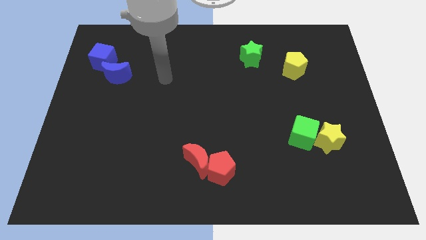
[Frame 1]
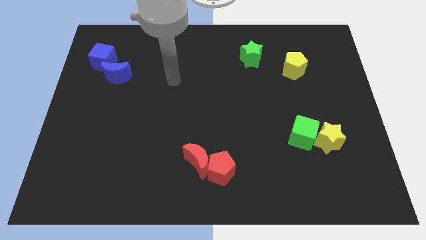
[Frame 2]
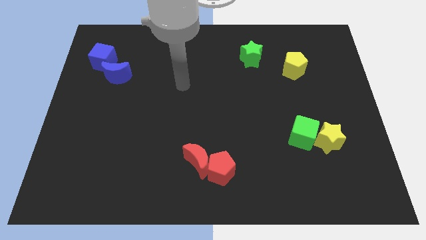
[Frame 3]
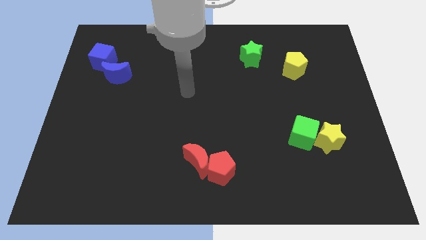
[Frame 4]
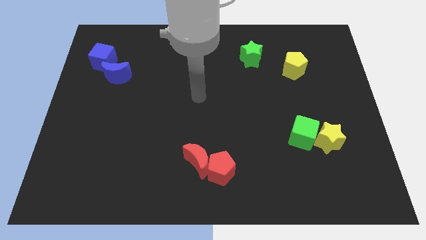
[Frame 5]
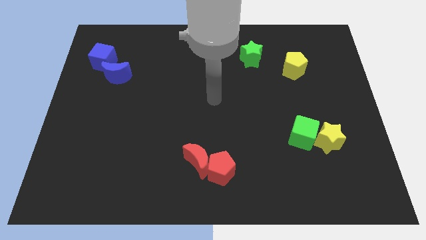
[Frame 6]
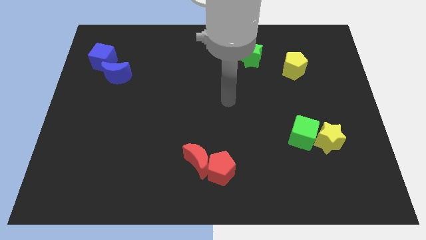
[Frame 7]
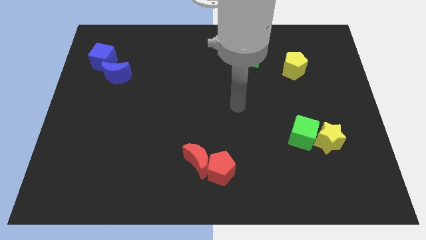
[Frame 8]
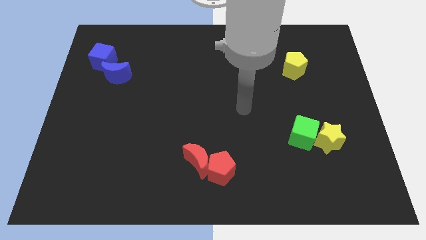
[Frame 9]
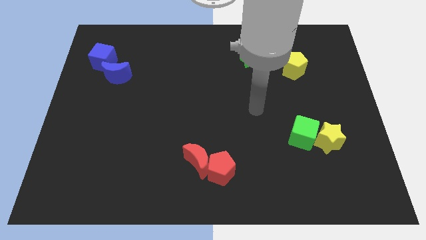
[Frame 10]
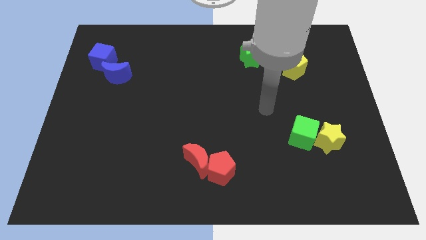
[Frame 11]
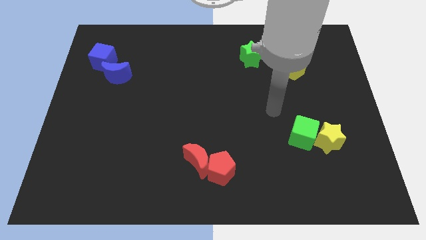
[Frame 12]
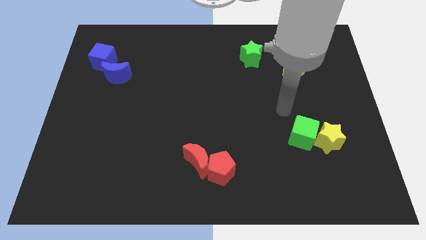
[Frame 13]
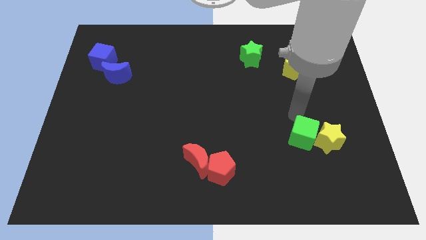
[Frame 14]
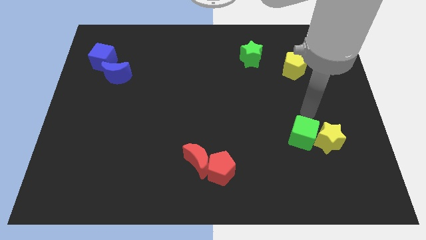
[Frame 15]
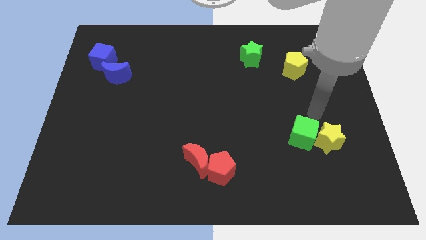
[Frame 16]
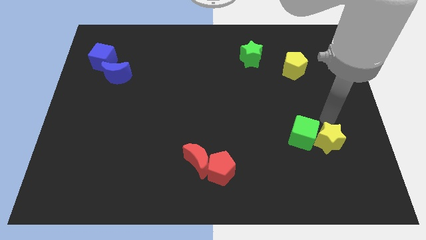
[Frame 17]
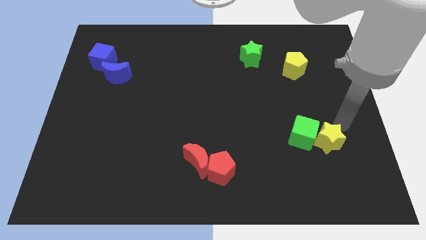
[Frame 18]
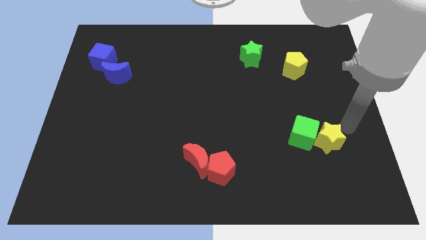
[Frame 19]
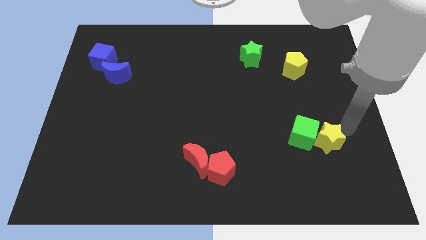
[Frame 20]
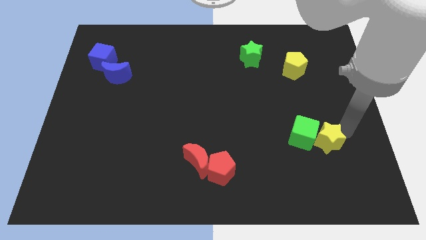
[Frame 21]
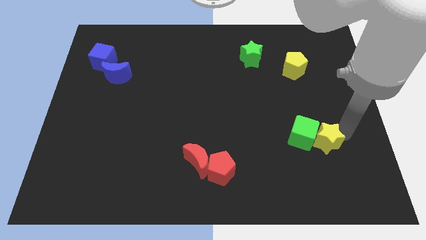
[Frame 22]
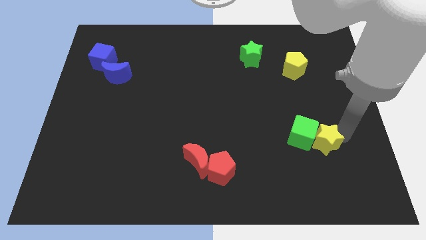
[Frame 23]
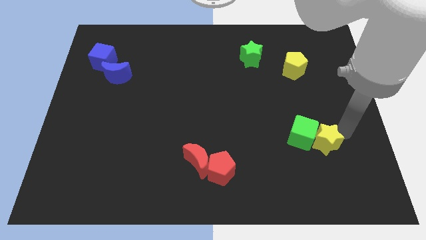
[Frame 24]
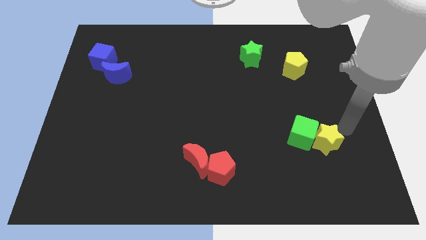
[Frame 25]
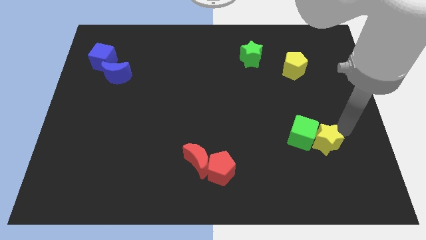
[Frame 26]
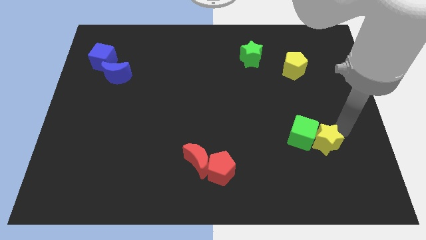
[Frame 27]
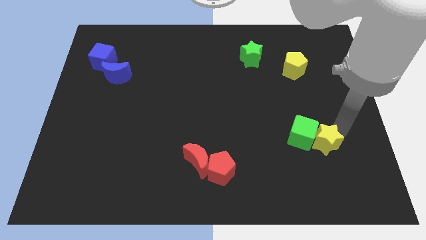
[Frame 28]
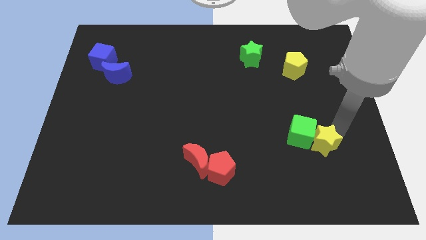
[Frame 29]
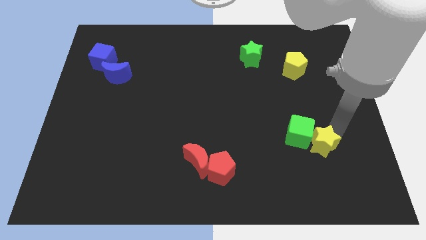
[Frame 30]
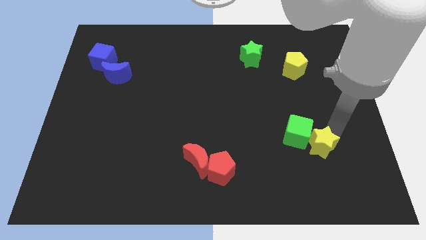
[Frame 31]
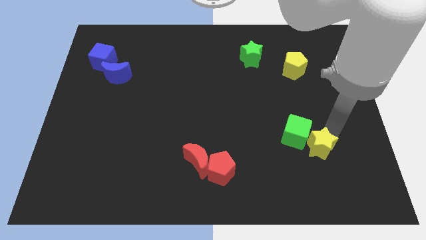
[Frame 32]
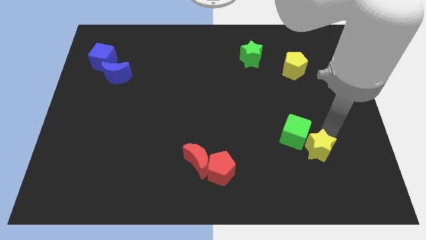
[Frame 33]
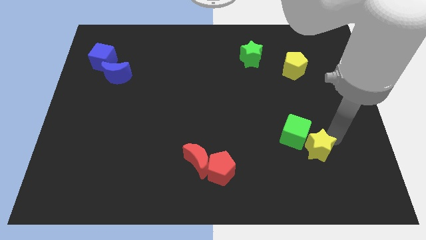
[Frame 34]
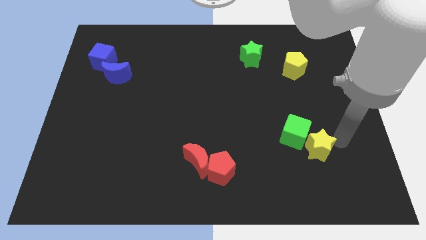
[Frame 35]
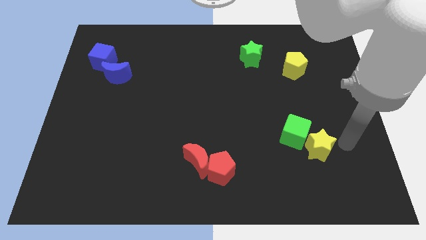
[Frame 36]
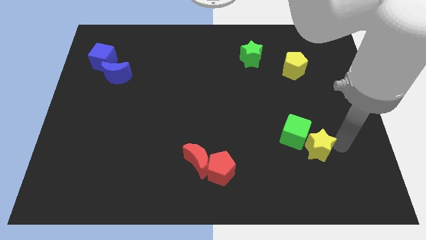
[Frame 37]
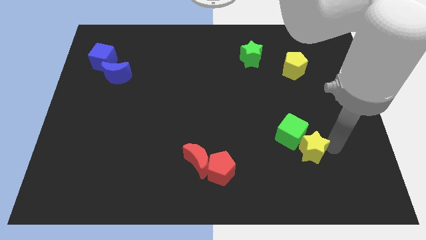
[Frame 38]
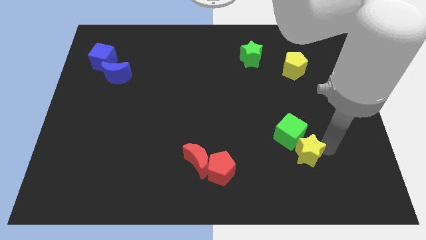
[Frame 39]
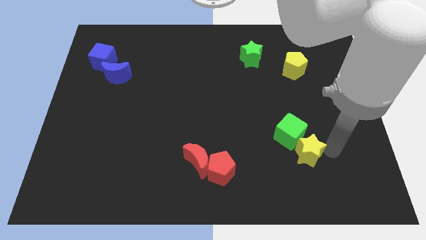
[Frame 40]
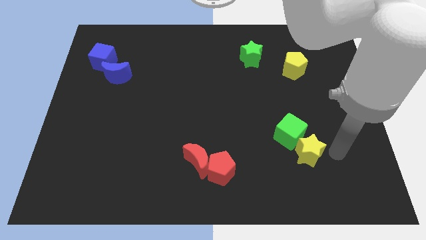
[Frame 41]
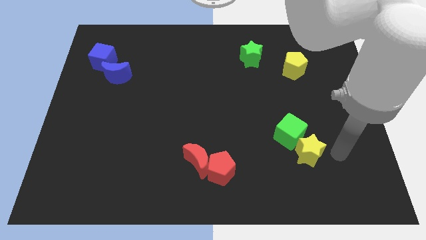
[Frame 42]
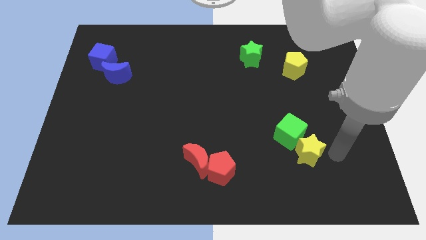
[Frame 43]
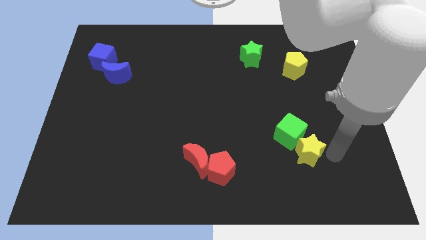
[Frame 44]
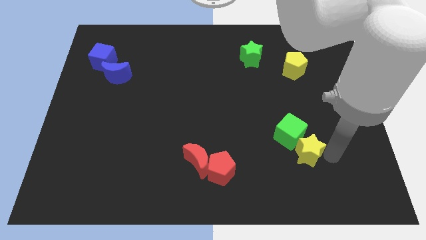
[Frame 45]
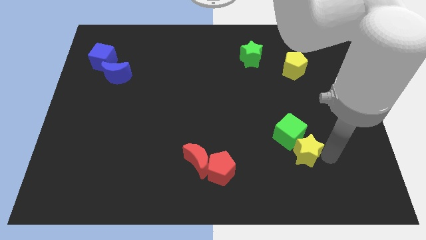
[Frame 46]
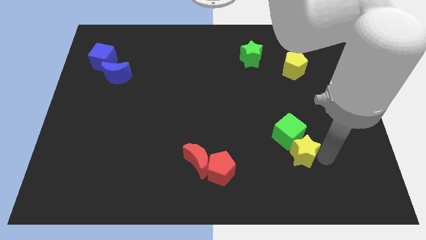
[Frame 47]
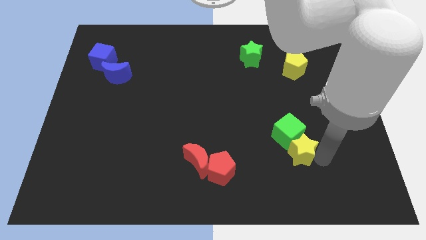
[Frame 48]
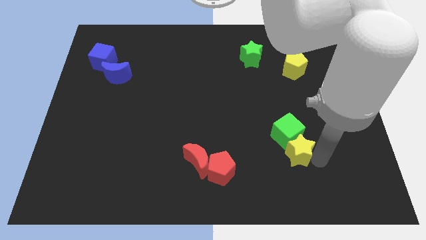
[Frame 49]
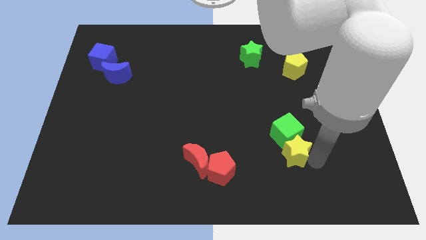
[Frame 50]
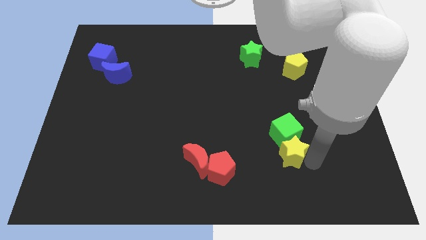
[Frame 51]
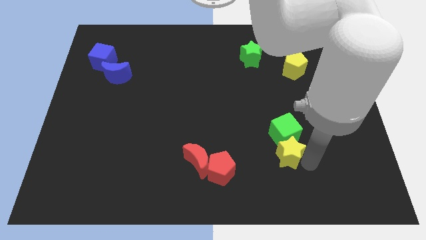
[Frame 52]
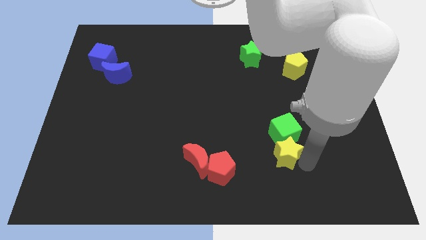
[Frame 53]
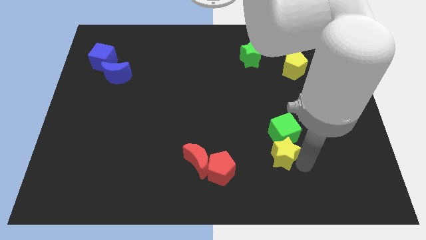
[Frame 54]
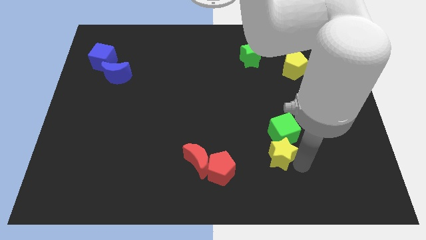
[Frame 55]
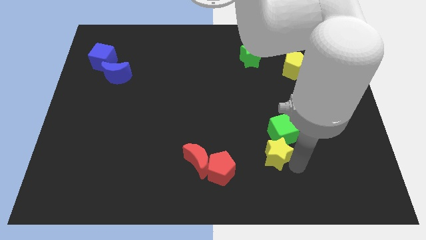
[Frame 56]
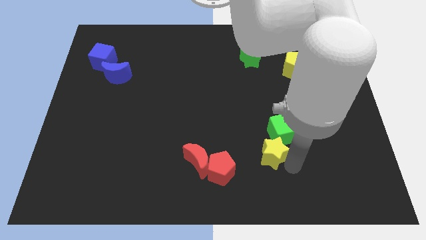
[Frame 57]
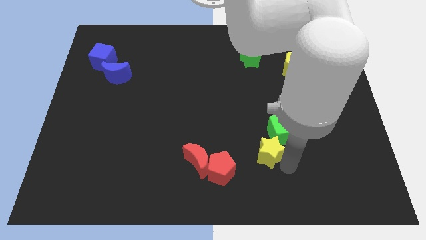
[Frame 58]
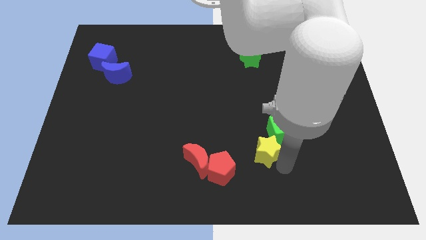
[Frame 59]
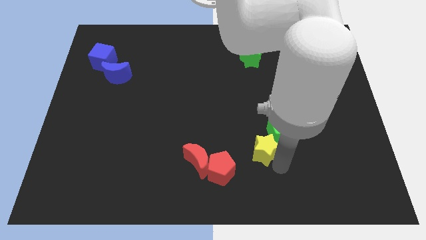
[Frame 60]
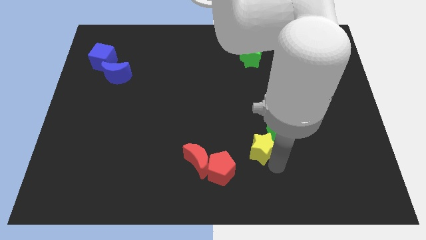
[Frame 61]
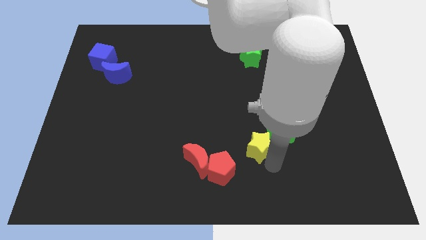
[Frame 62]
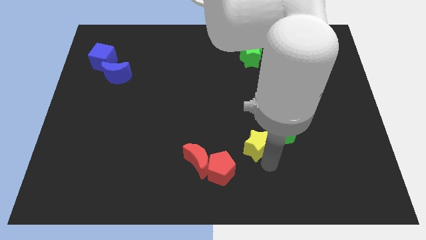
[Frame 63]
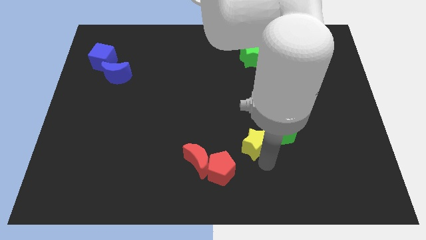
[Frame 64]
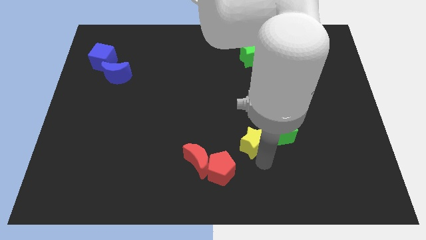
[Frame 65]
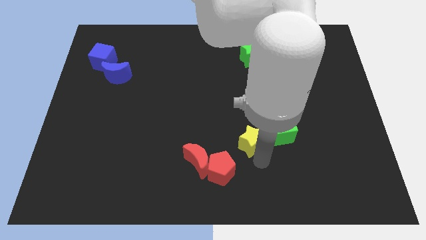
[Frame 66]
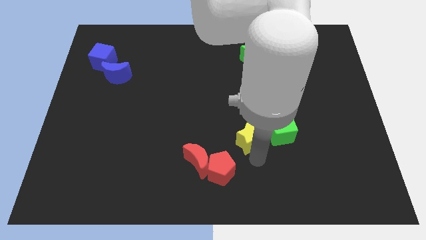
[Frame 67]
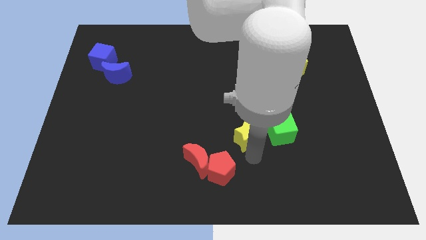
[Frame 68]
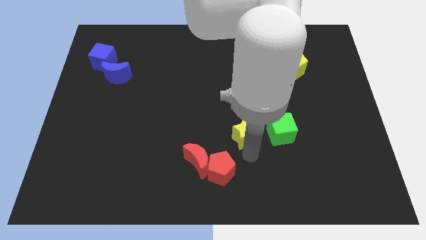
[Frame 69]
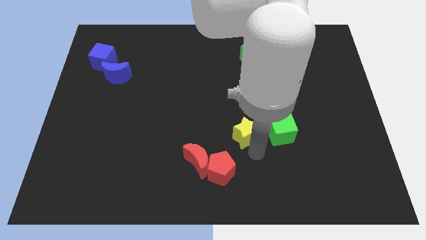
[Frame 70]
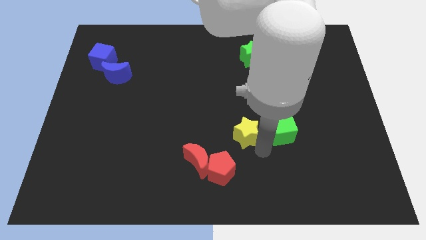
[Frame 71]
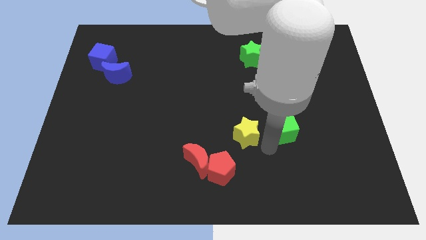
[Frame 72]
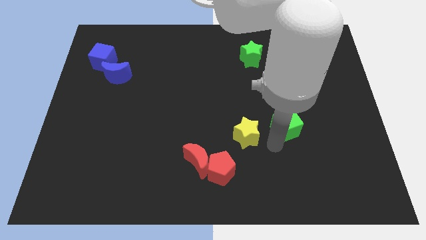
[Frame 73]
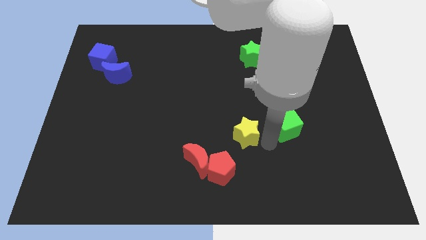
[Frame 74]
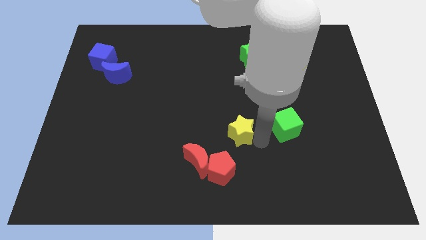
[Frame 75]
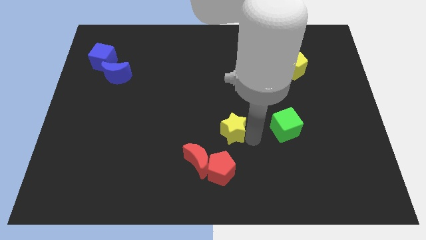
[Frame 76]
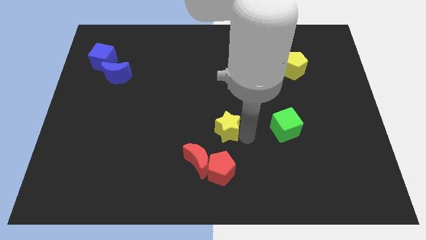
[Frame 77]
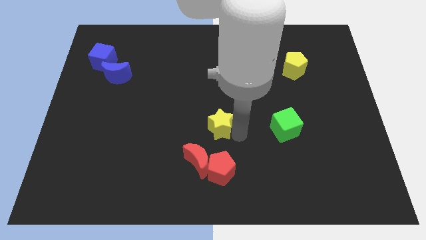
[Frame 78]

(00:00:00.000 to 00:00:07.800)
push the yellow star to the top of the red moon
